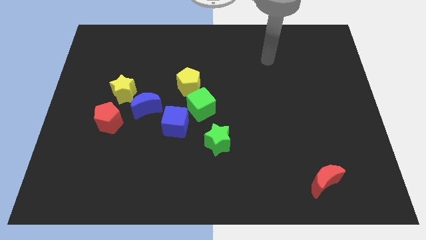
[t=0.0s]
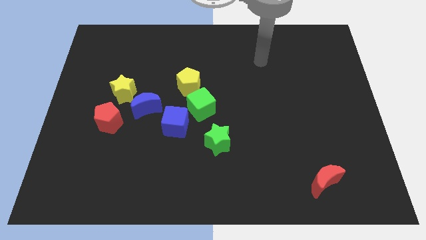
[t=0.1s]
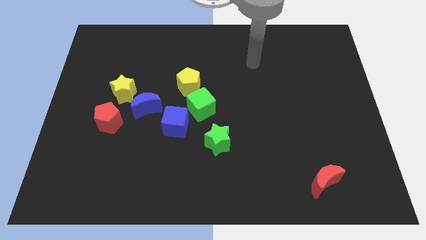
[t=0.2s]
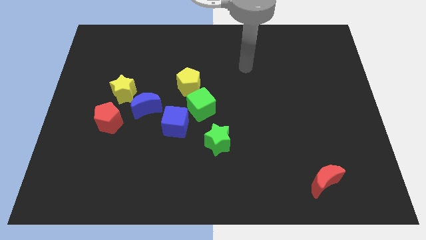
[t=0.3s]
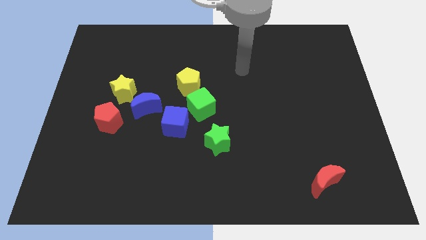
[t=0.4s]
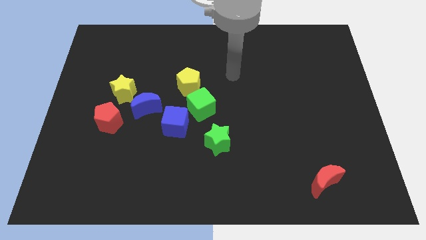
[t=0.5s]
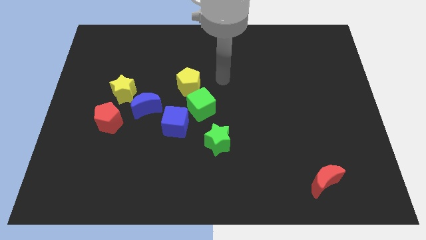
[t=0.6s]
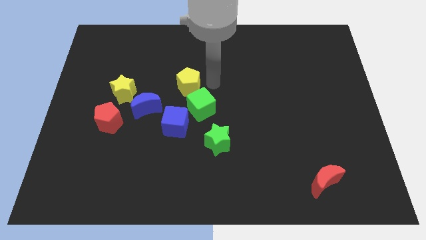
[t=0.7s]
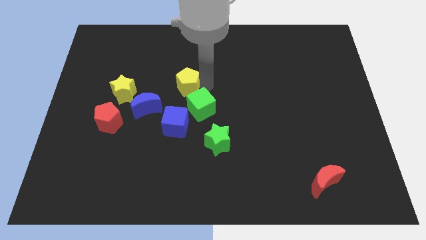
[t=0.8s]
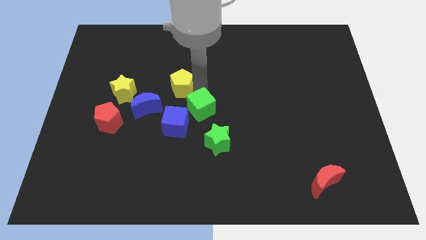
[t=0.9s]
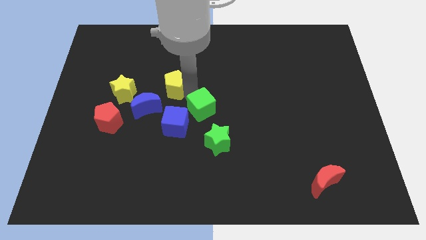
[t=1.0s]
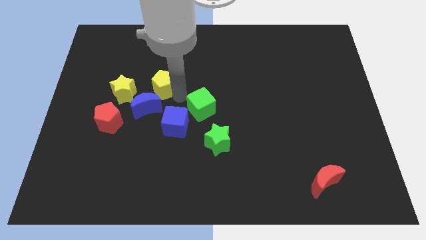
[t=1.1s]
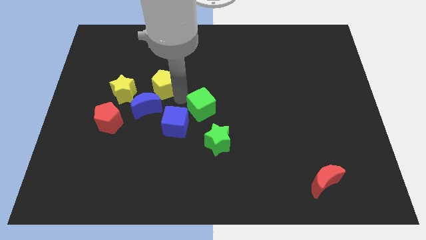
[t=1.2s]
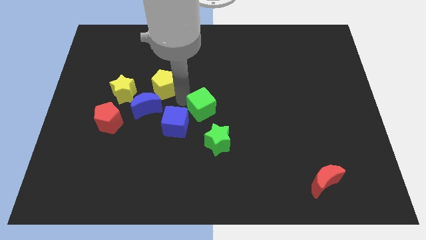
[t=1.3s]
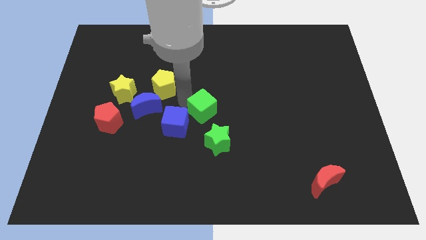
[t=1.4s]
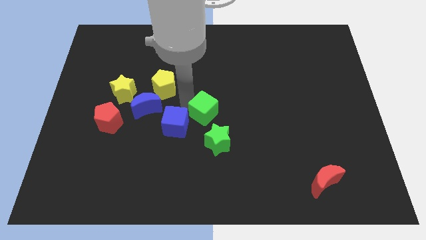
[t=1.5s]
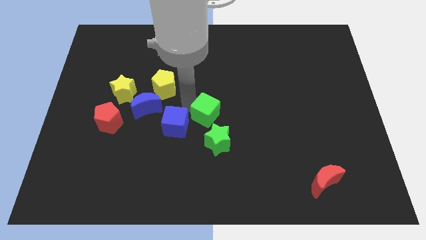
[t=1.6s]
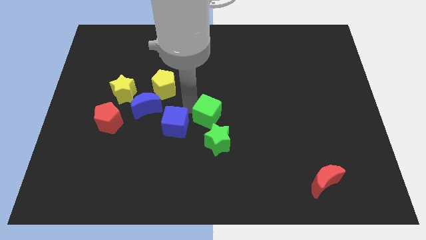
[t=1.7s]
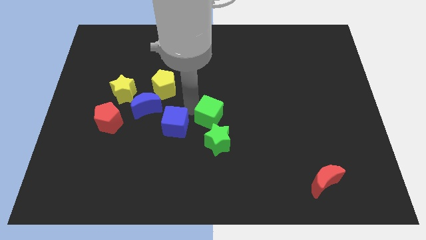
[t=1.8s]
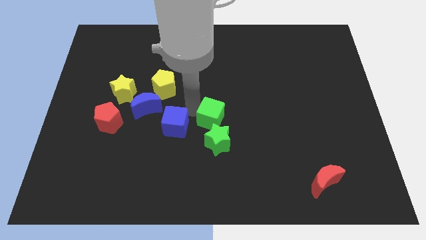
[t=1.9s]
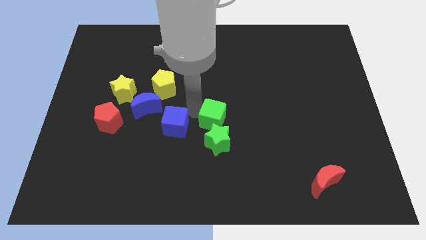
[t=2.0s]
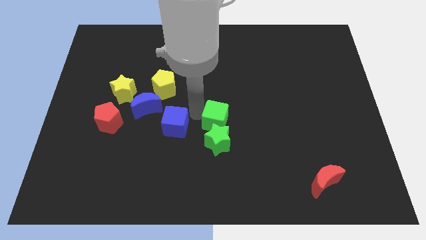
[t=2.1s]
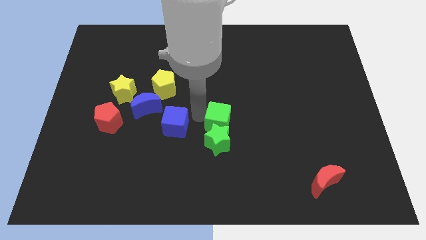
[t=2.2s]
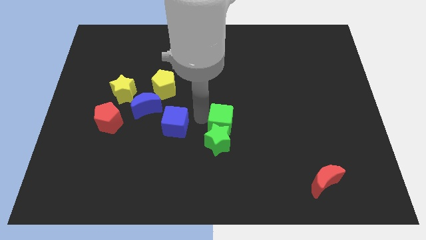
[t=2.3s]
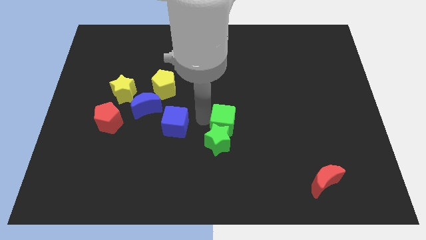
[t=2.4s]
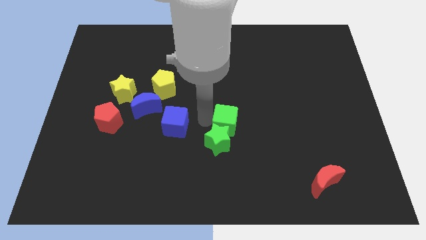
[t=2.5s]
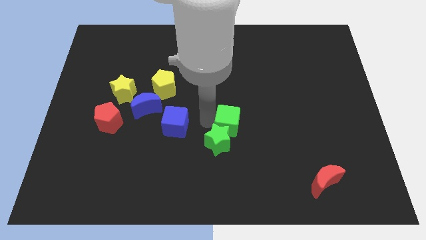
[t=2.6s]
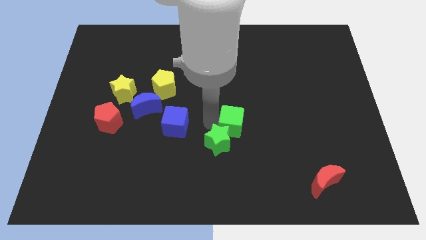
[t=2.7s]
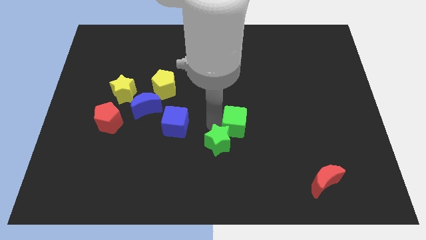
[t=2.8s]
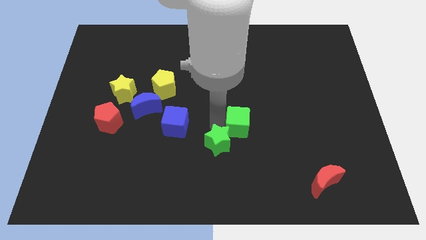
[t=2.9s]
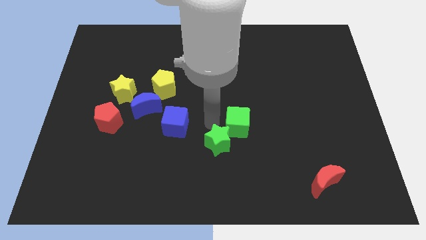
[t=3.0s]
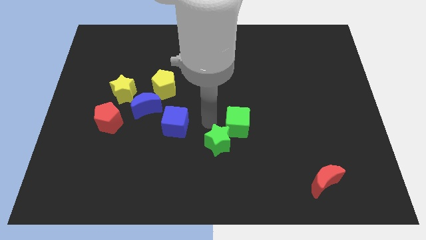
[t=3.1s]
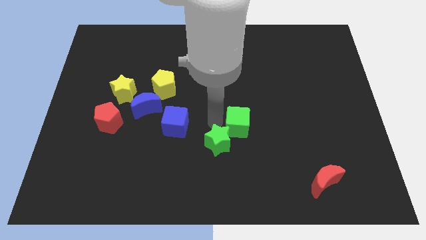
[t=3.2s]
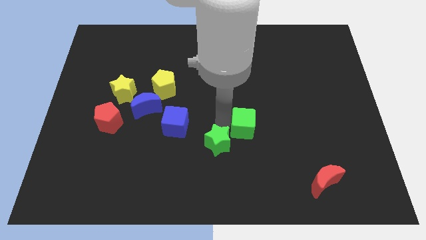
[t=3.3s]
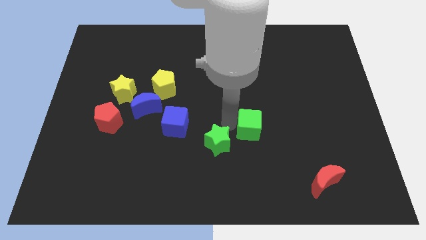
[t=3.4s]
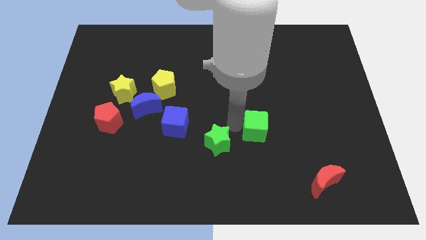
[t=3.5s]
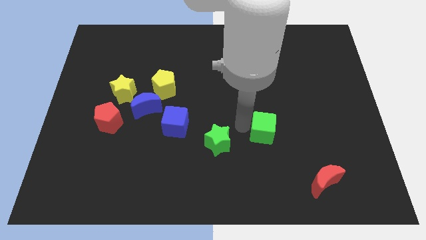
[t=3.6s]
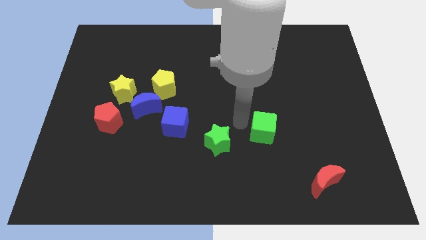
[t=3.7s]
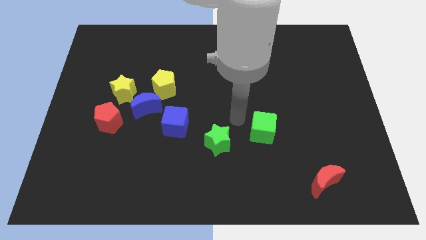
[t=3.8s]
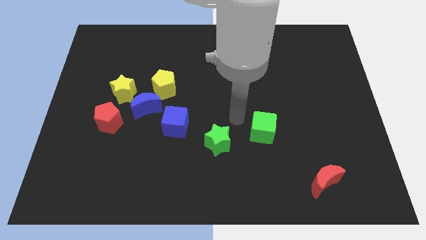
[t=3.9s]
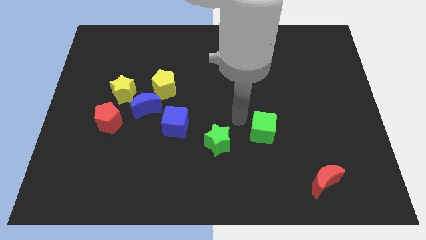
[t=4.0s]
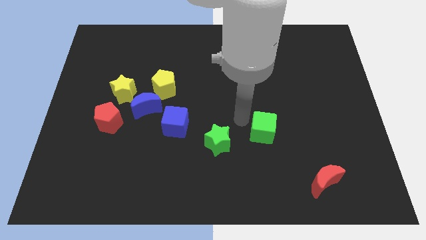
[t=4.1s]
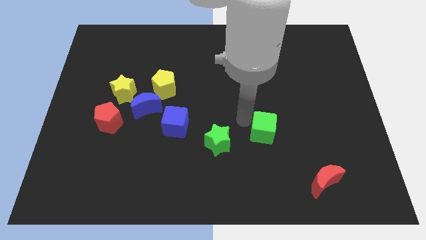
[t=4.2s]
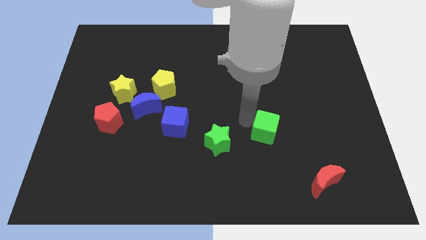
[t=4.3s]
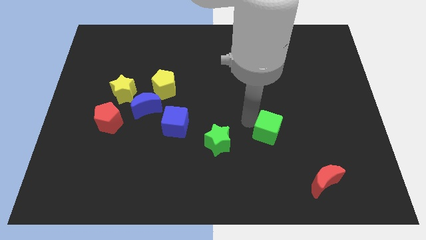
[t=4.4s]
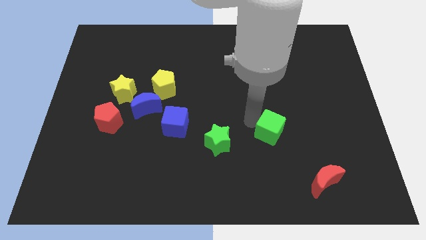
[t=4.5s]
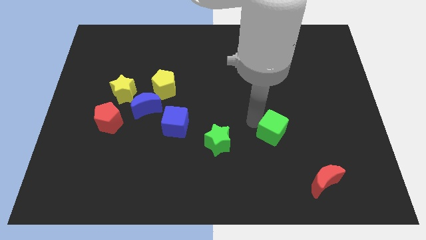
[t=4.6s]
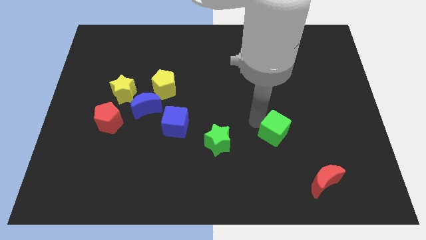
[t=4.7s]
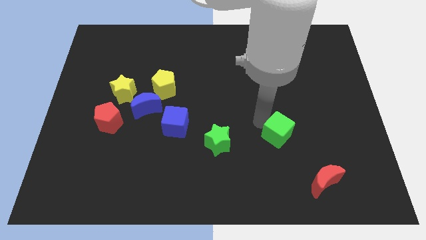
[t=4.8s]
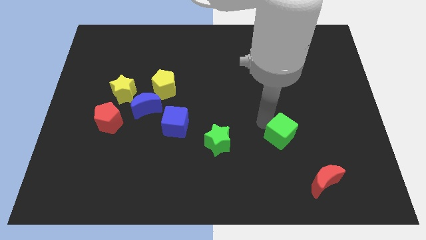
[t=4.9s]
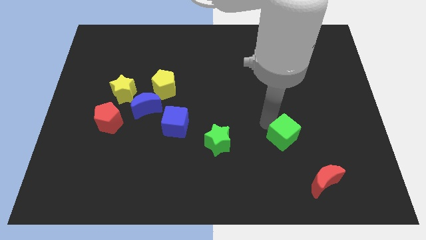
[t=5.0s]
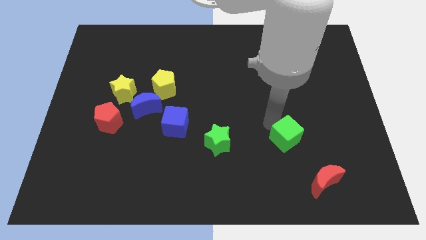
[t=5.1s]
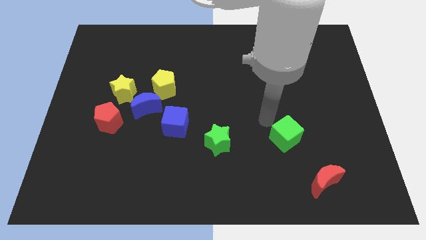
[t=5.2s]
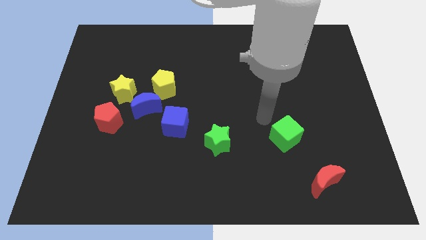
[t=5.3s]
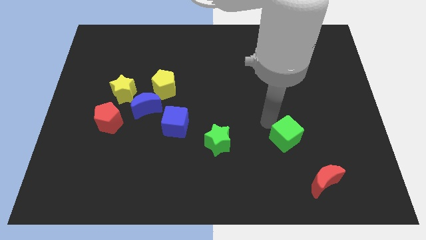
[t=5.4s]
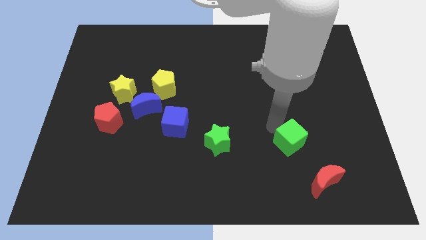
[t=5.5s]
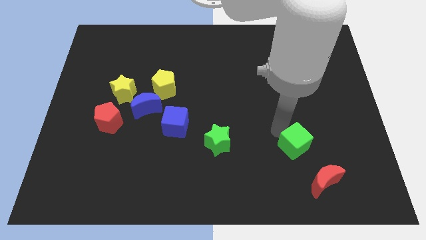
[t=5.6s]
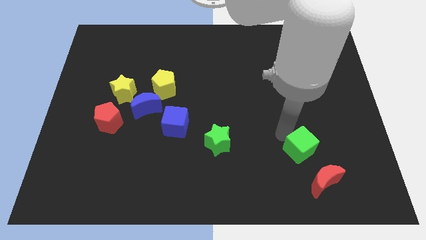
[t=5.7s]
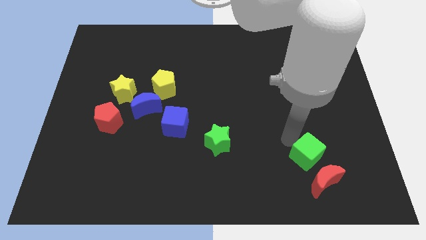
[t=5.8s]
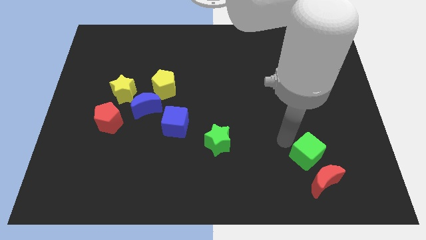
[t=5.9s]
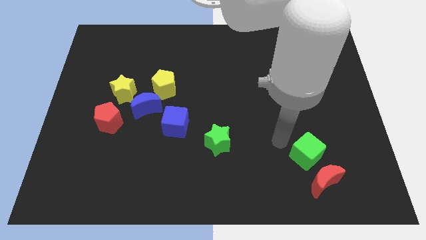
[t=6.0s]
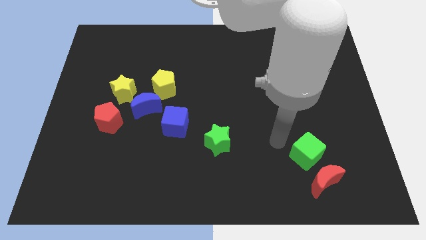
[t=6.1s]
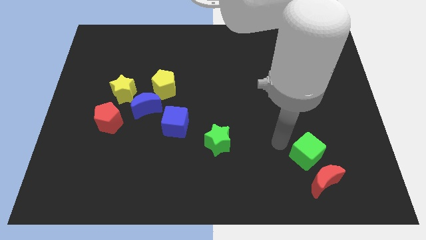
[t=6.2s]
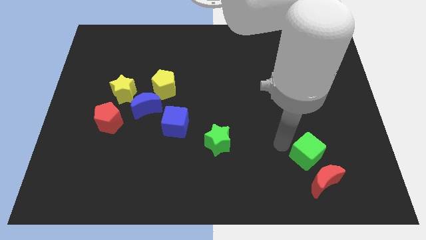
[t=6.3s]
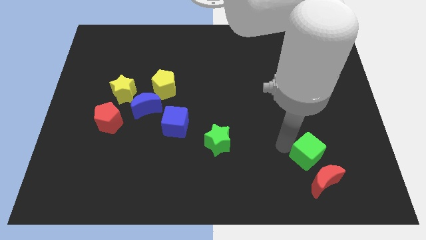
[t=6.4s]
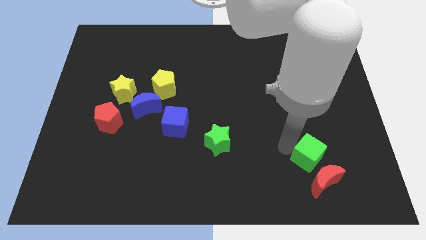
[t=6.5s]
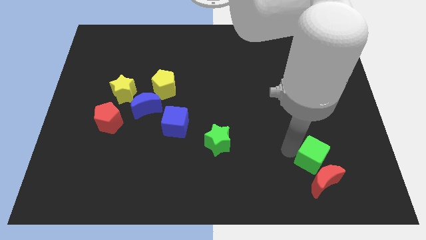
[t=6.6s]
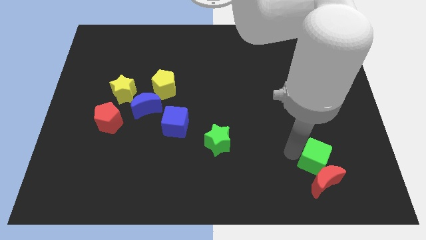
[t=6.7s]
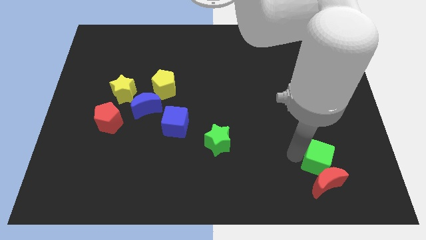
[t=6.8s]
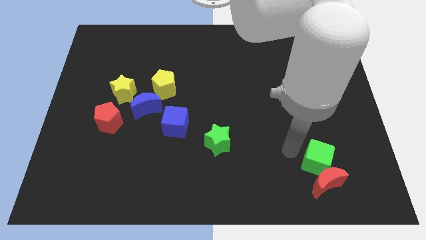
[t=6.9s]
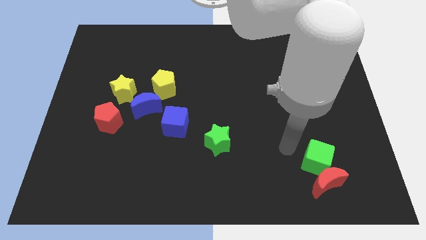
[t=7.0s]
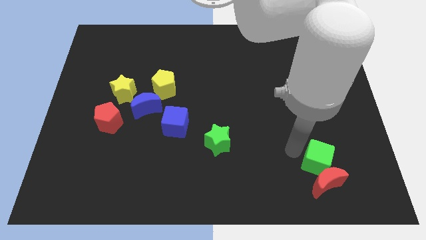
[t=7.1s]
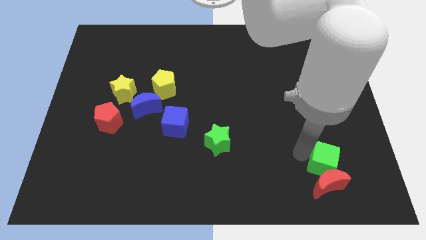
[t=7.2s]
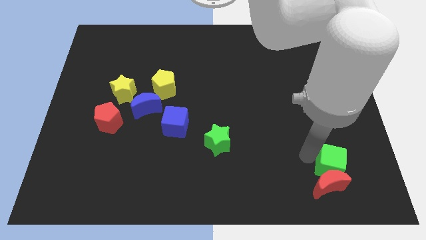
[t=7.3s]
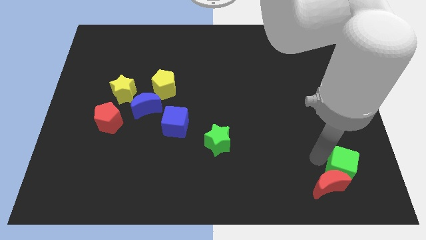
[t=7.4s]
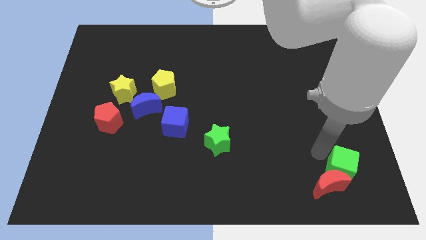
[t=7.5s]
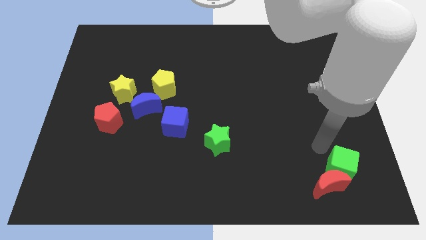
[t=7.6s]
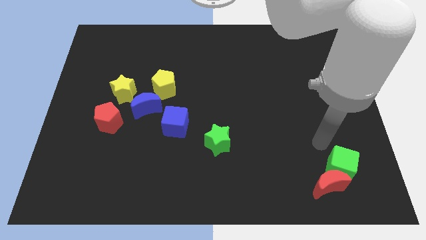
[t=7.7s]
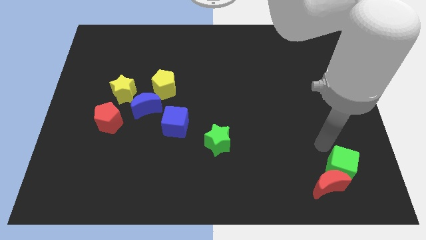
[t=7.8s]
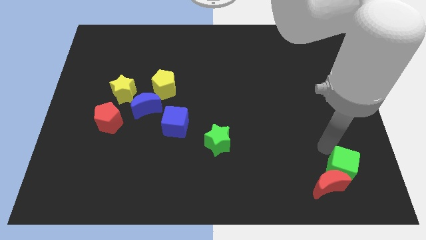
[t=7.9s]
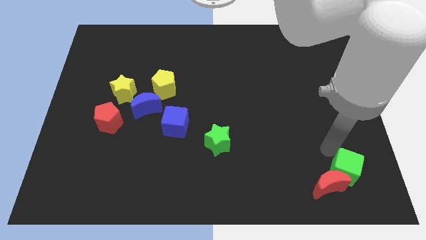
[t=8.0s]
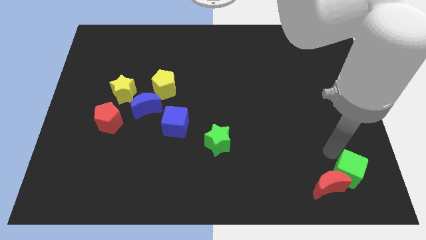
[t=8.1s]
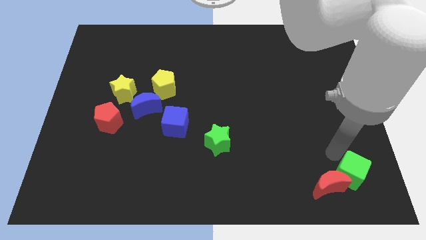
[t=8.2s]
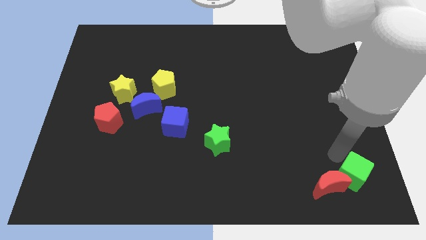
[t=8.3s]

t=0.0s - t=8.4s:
put the green cube to the lower right corner
